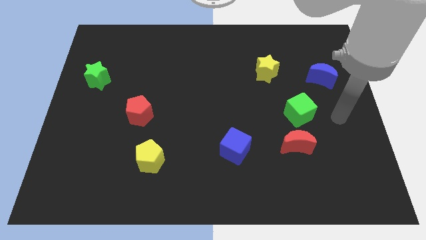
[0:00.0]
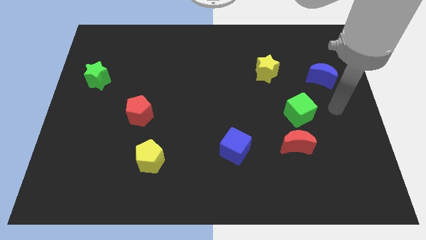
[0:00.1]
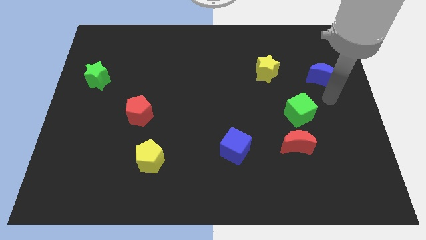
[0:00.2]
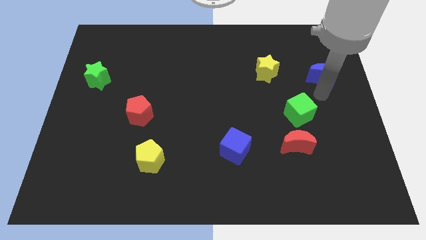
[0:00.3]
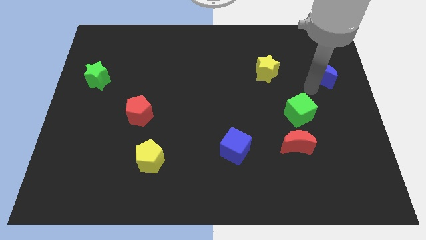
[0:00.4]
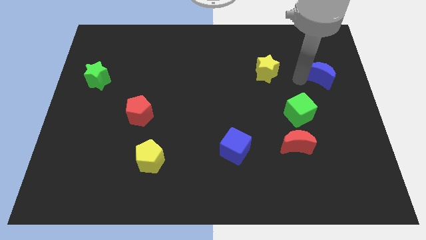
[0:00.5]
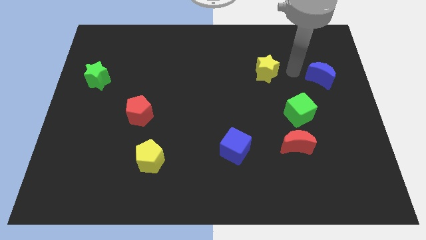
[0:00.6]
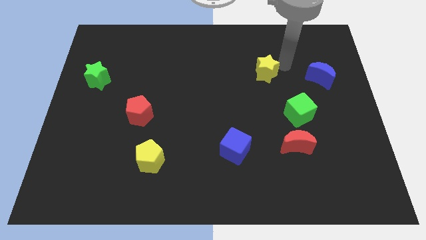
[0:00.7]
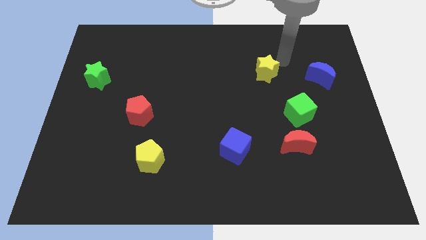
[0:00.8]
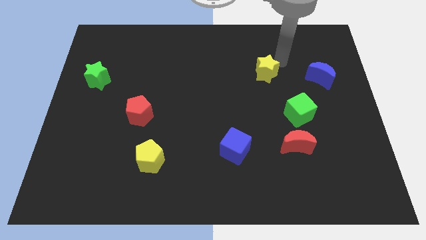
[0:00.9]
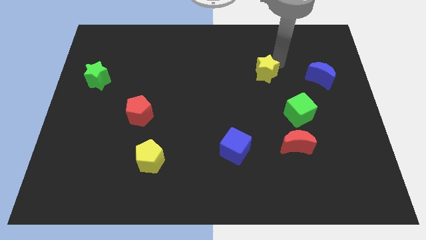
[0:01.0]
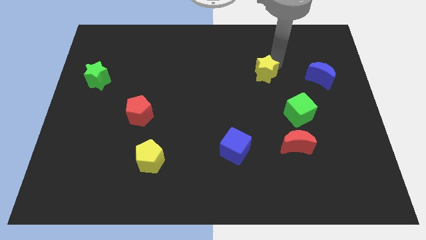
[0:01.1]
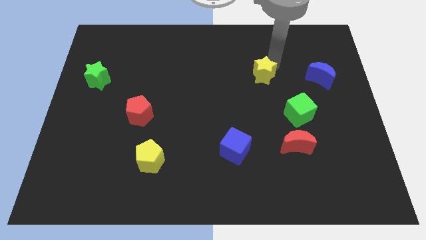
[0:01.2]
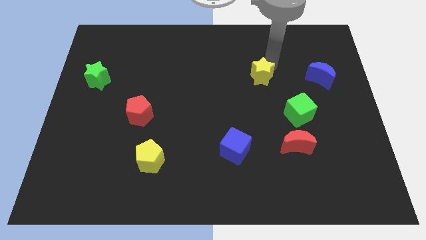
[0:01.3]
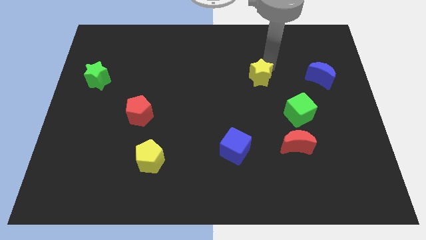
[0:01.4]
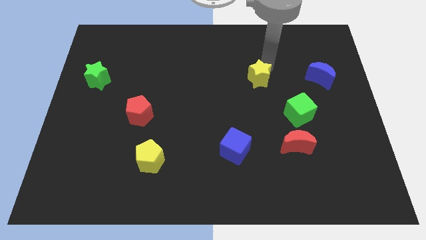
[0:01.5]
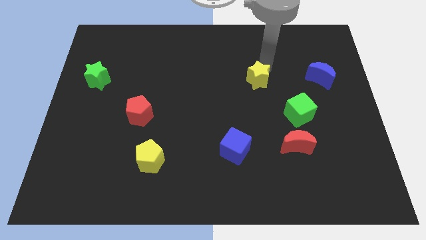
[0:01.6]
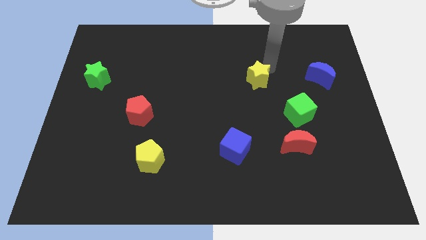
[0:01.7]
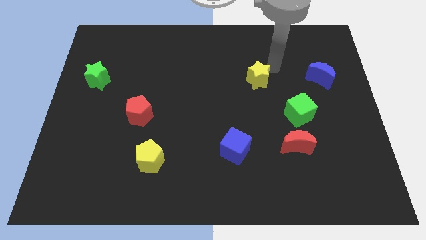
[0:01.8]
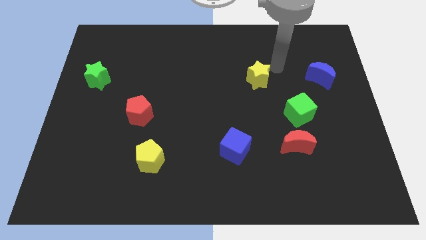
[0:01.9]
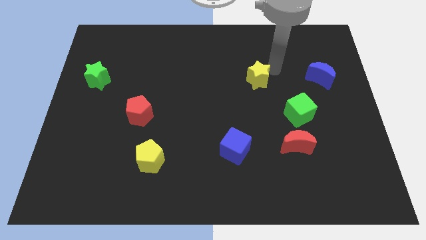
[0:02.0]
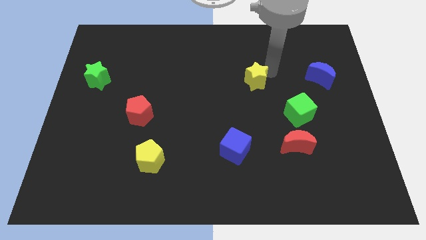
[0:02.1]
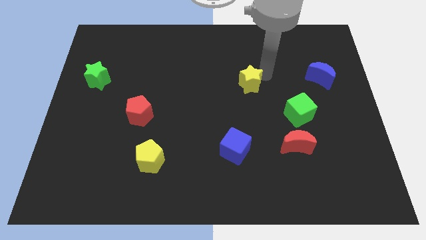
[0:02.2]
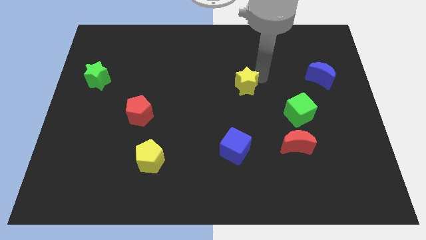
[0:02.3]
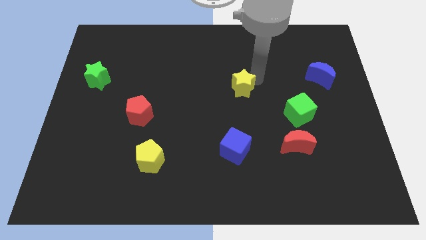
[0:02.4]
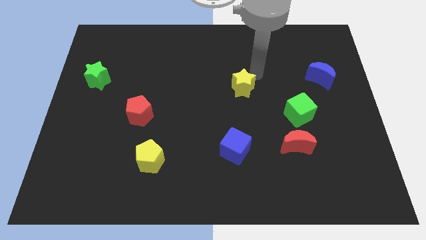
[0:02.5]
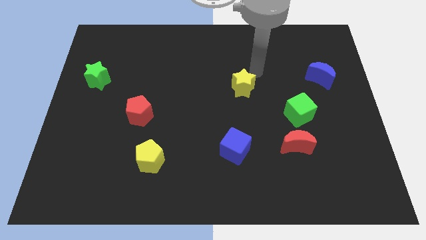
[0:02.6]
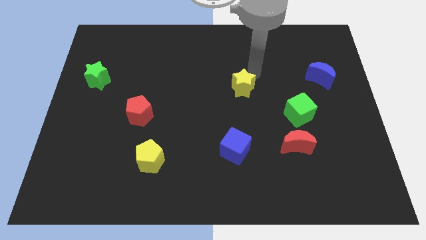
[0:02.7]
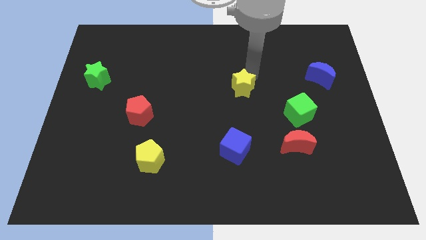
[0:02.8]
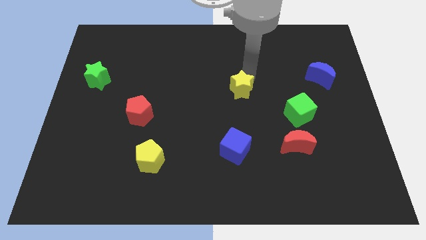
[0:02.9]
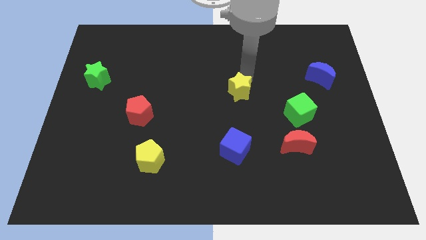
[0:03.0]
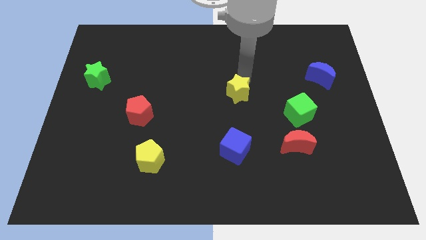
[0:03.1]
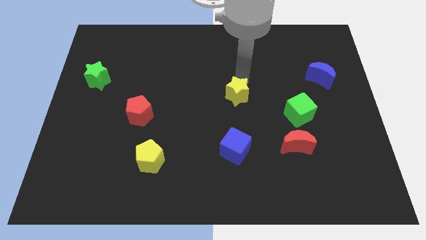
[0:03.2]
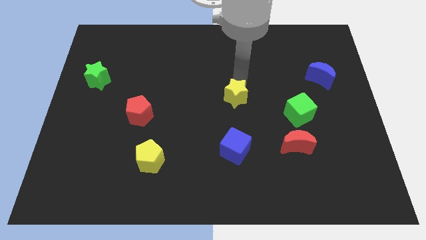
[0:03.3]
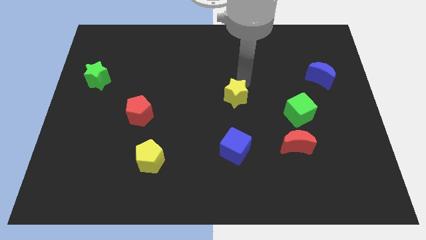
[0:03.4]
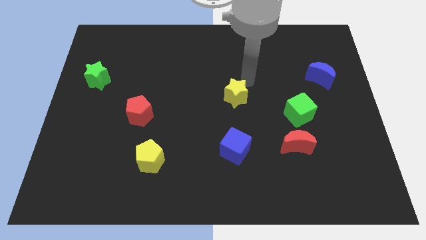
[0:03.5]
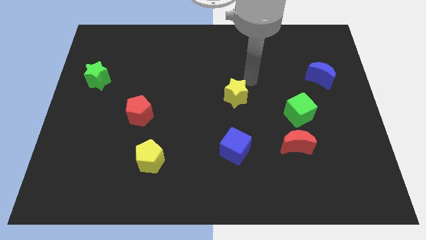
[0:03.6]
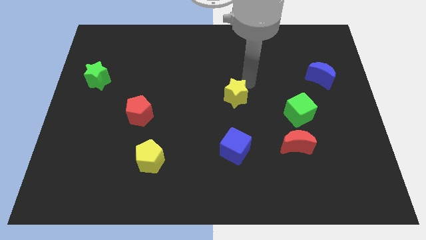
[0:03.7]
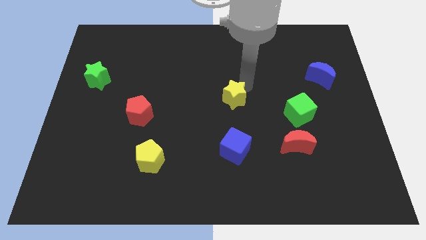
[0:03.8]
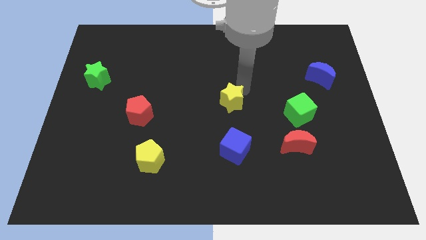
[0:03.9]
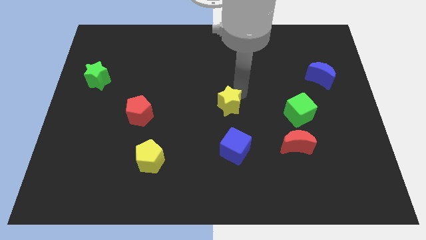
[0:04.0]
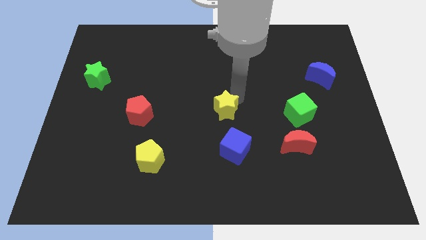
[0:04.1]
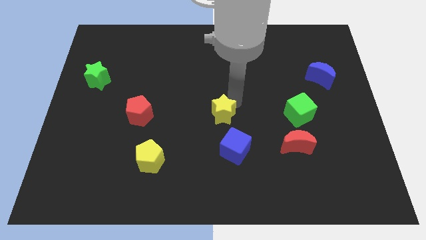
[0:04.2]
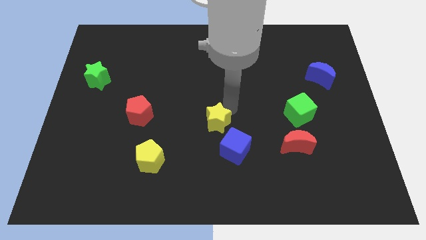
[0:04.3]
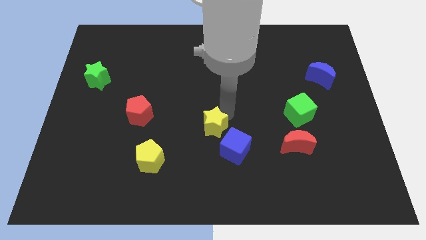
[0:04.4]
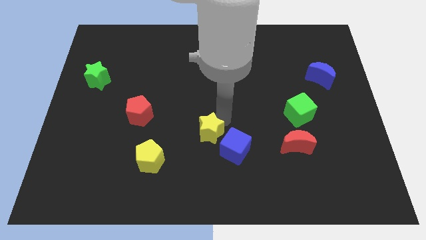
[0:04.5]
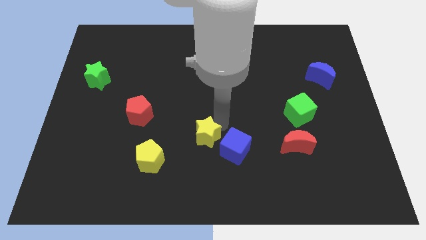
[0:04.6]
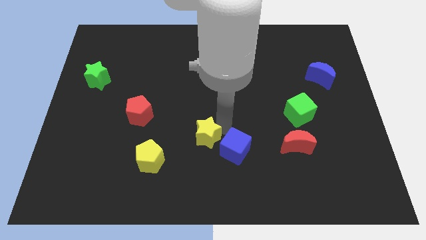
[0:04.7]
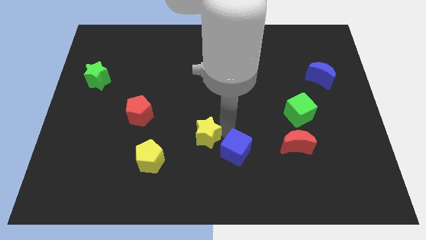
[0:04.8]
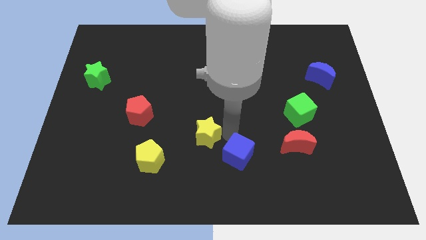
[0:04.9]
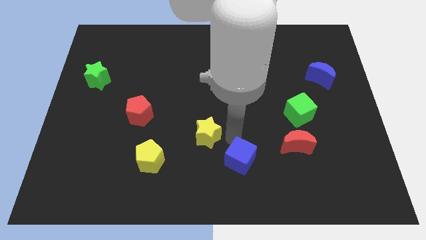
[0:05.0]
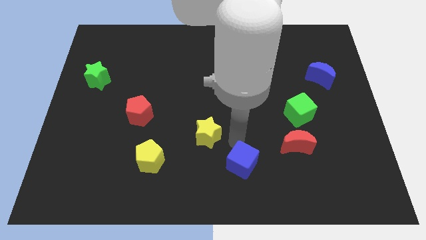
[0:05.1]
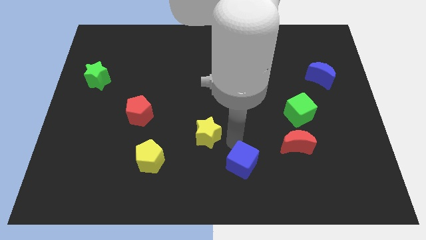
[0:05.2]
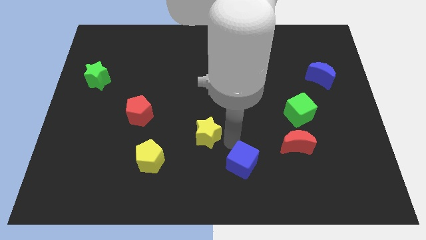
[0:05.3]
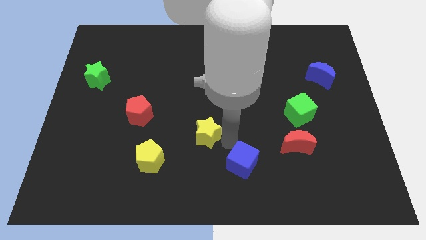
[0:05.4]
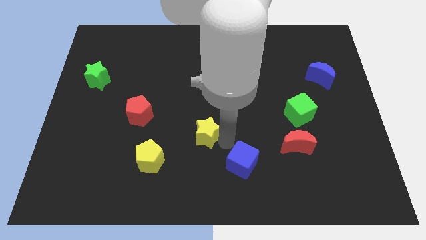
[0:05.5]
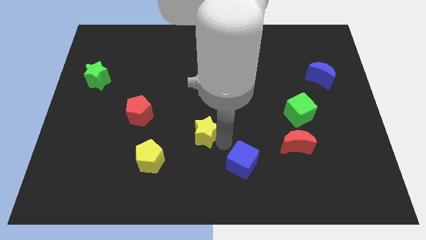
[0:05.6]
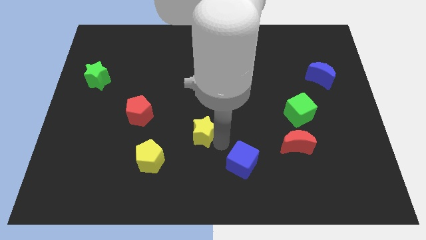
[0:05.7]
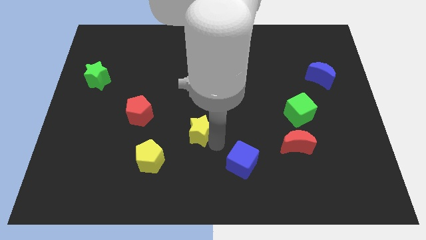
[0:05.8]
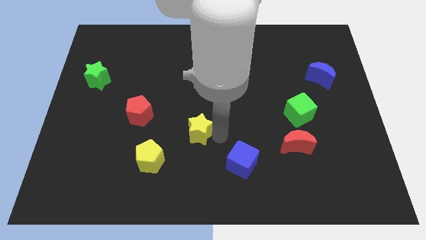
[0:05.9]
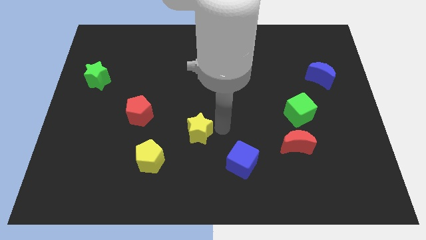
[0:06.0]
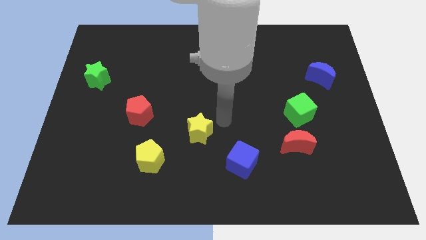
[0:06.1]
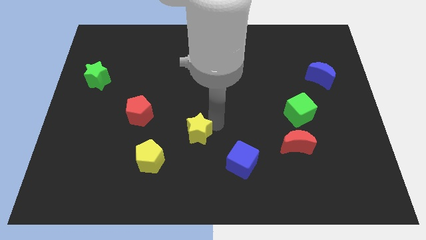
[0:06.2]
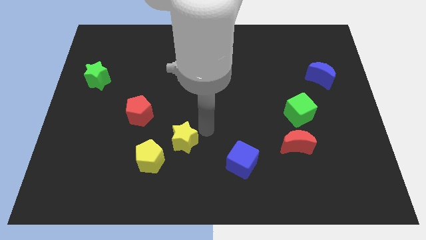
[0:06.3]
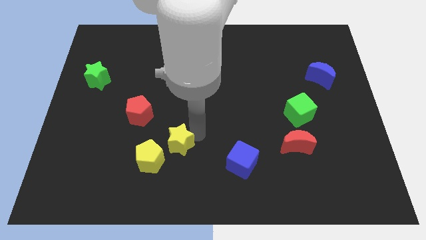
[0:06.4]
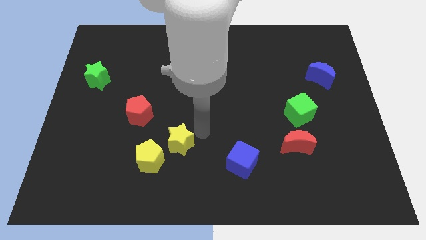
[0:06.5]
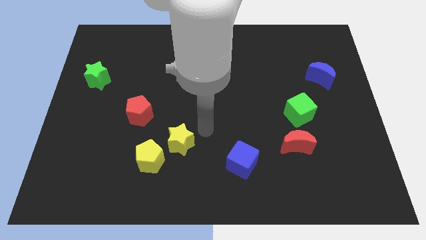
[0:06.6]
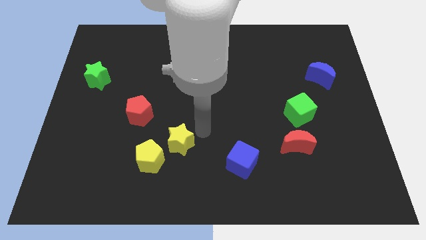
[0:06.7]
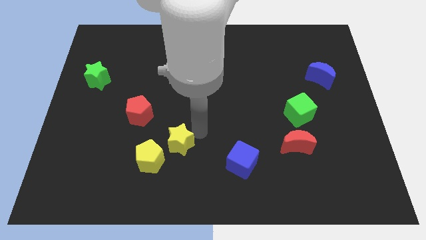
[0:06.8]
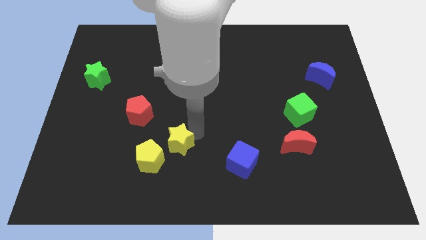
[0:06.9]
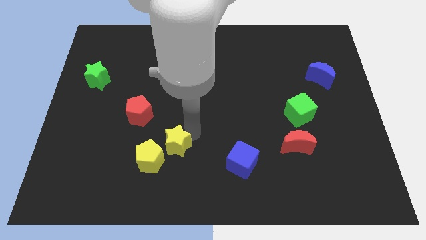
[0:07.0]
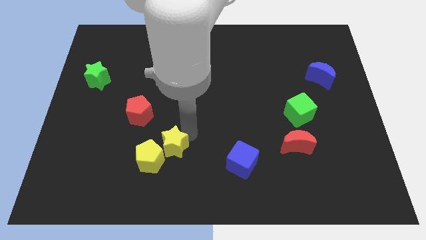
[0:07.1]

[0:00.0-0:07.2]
move the yellow star towards the yellow pentagon
